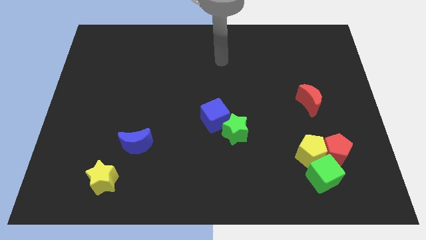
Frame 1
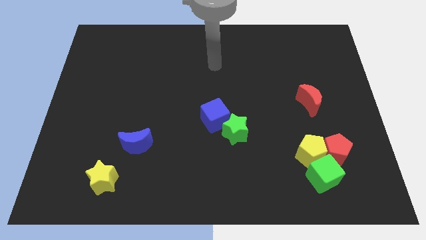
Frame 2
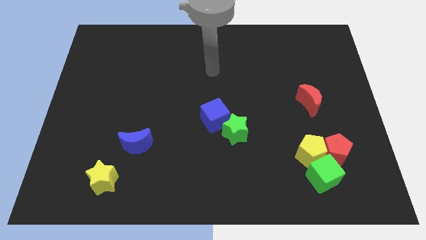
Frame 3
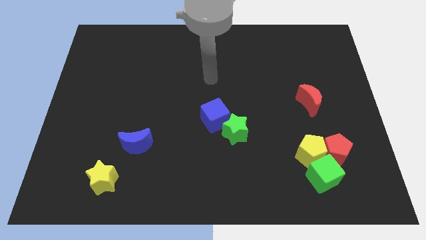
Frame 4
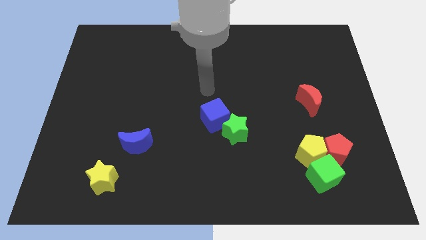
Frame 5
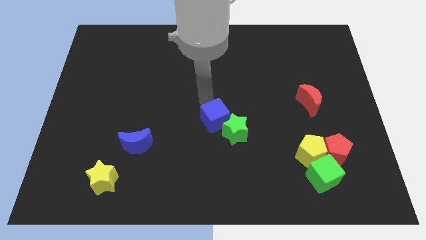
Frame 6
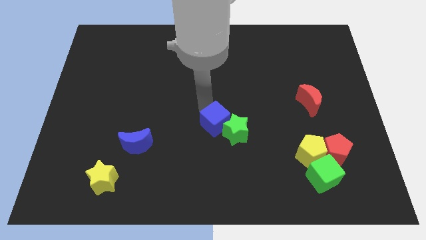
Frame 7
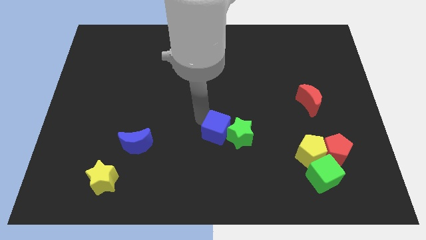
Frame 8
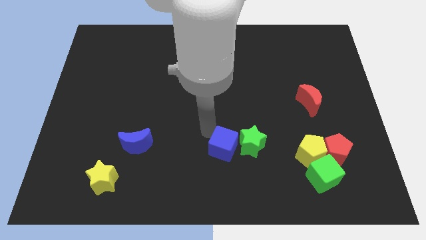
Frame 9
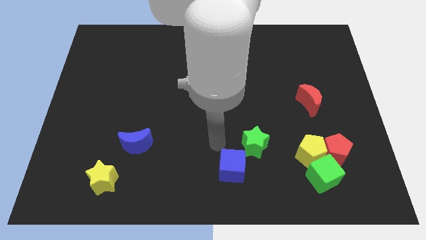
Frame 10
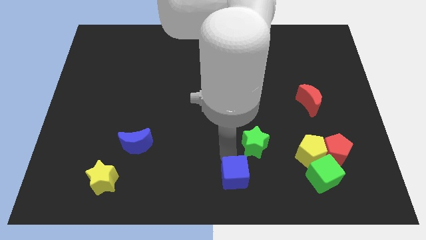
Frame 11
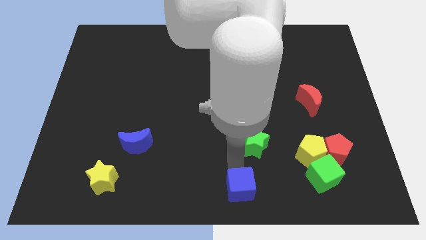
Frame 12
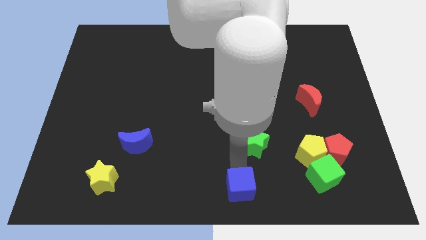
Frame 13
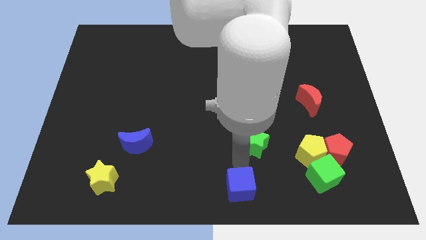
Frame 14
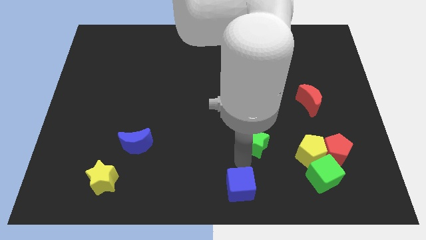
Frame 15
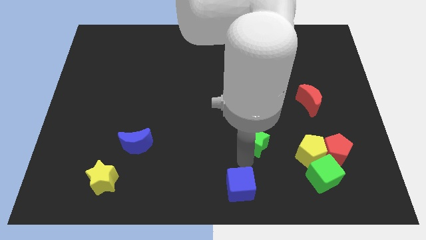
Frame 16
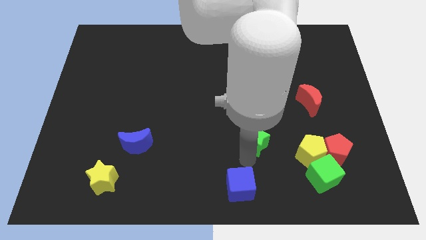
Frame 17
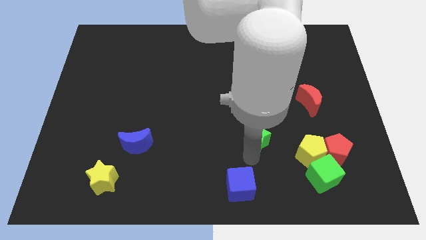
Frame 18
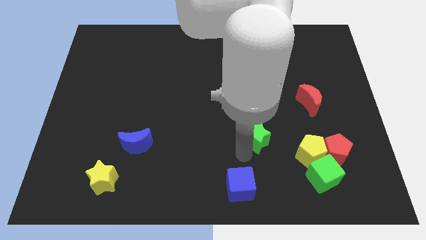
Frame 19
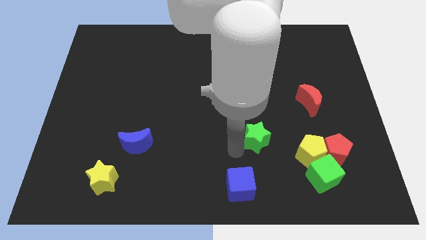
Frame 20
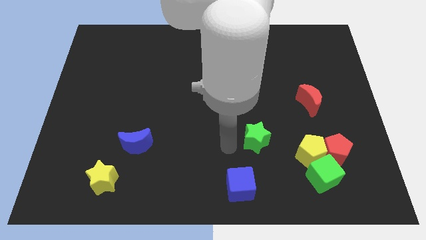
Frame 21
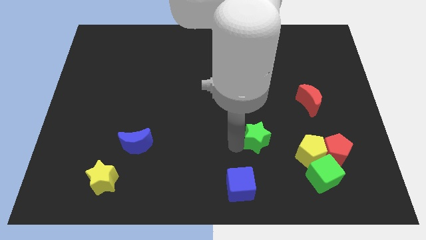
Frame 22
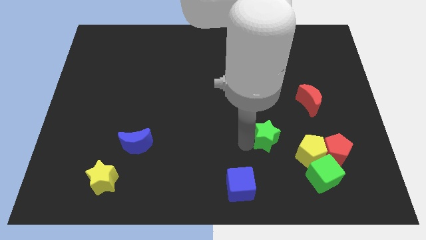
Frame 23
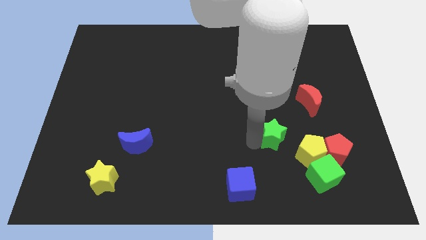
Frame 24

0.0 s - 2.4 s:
push the green star slightly to the right

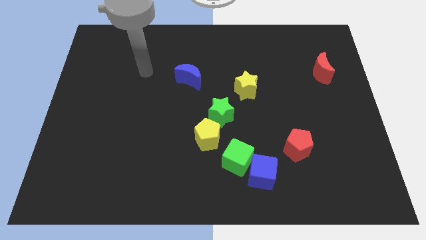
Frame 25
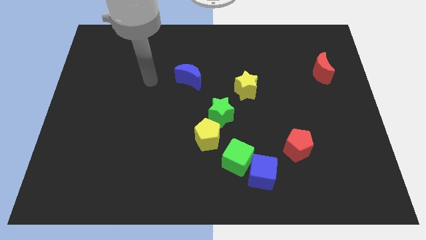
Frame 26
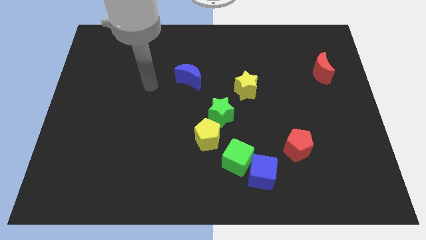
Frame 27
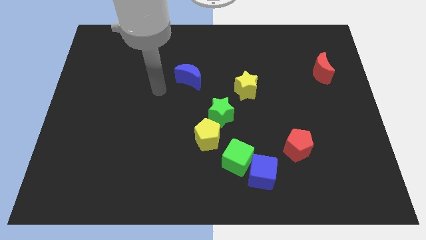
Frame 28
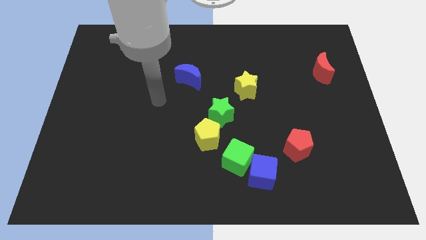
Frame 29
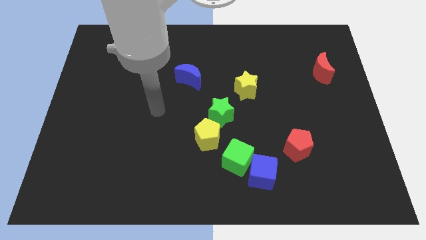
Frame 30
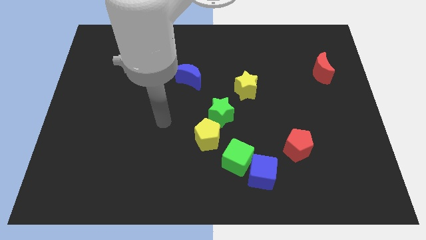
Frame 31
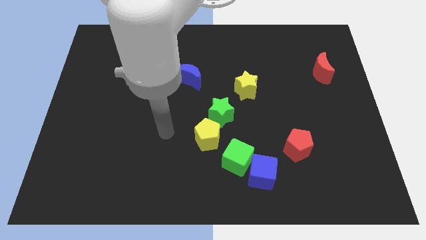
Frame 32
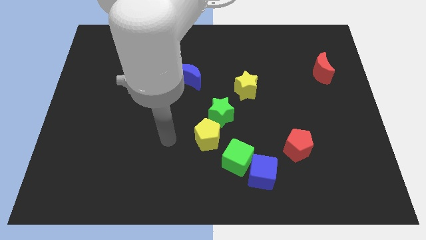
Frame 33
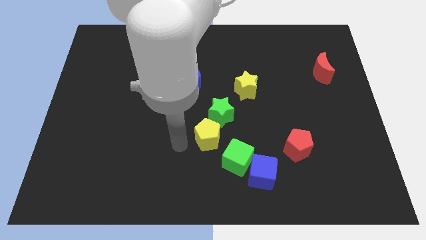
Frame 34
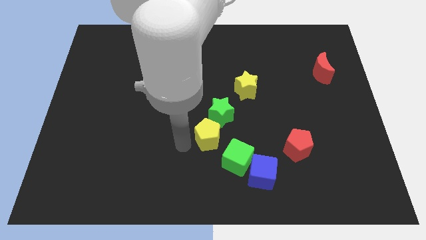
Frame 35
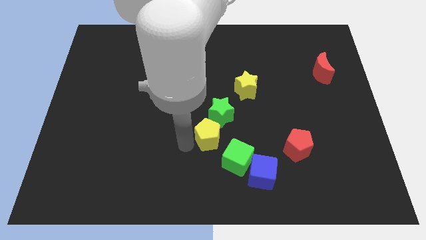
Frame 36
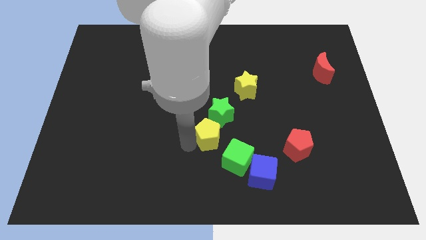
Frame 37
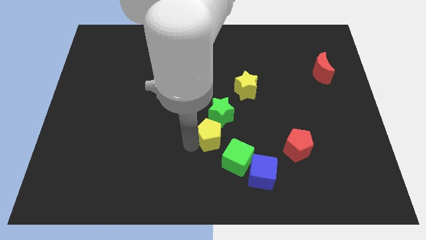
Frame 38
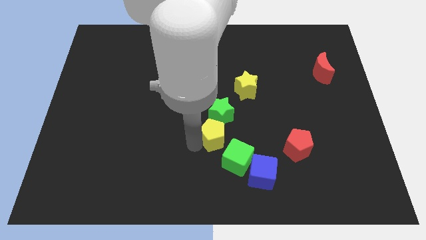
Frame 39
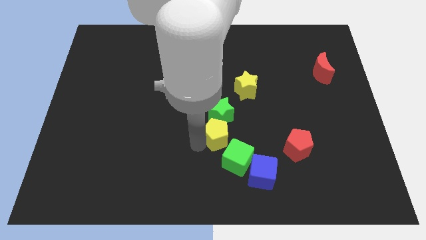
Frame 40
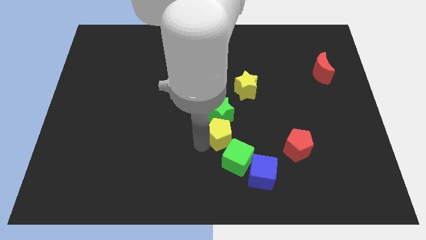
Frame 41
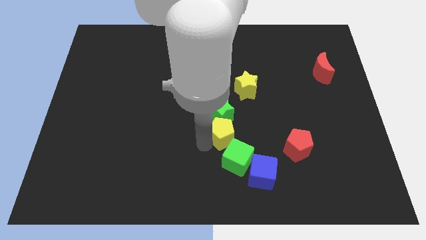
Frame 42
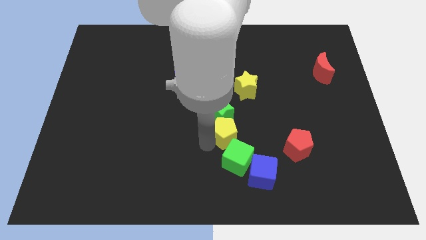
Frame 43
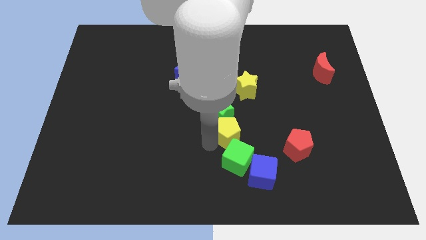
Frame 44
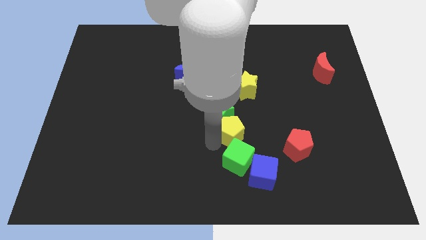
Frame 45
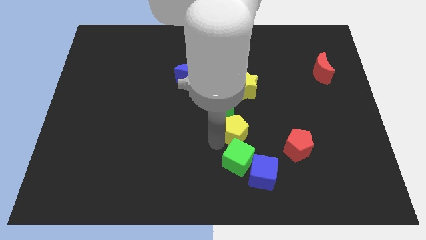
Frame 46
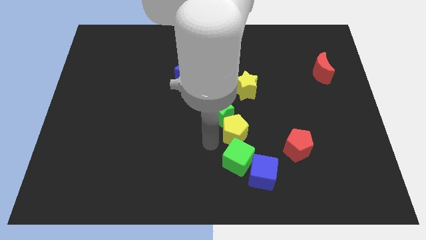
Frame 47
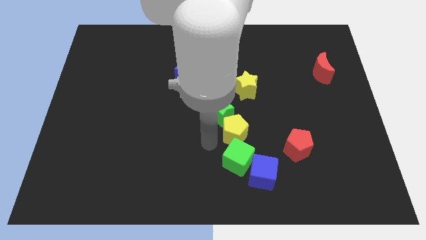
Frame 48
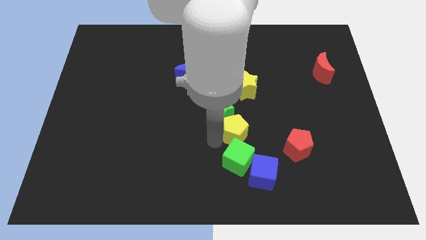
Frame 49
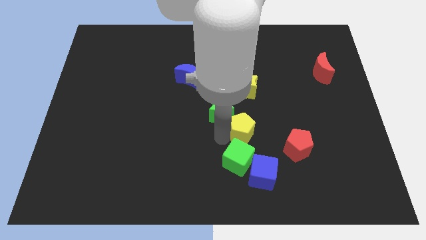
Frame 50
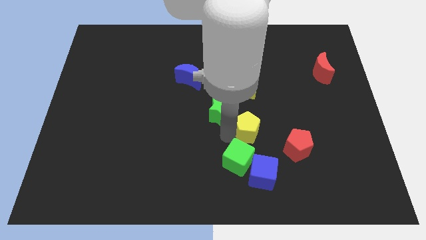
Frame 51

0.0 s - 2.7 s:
push the yellow pentagon a little up and then to the right

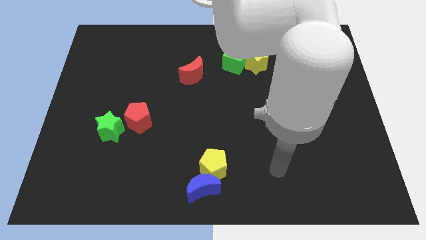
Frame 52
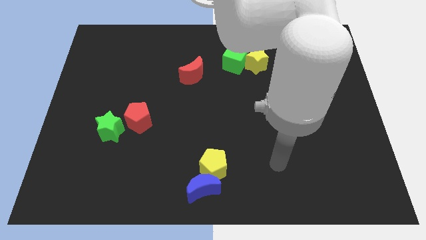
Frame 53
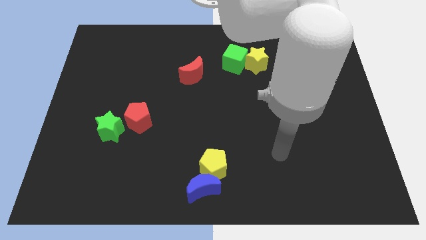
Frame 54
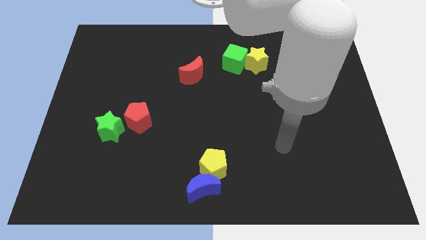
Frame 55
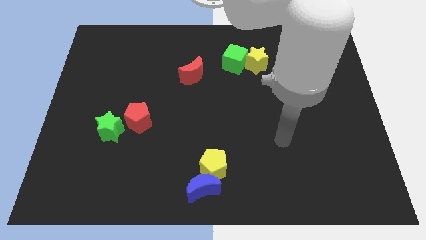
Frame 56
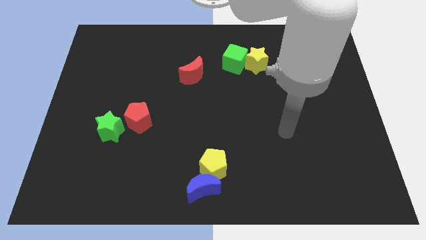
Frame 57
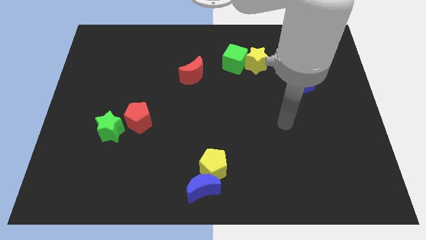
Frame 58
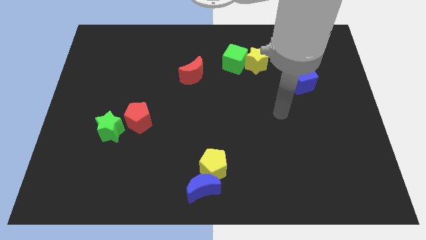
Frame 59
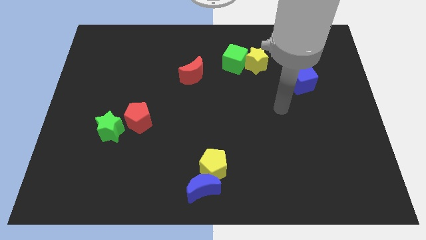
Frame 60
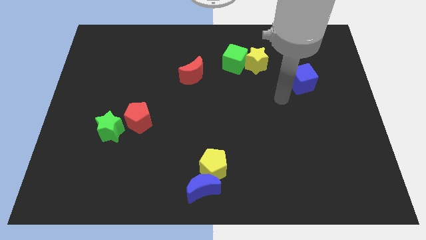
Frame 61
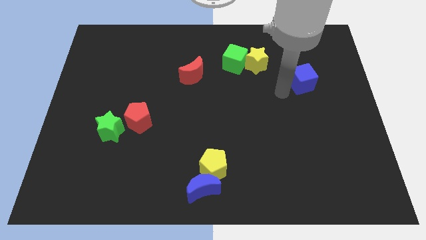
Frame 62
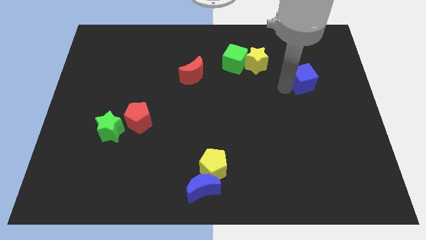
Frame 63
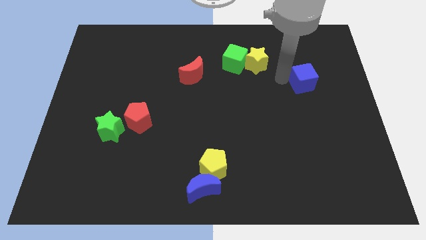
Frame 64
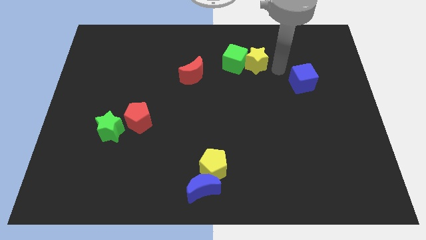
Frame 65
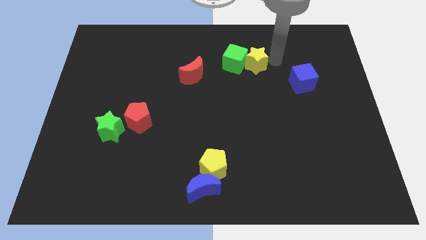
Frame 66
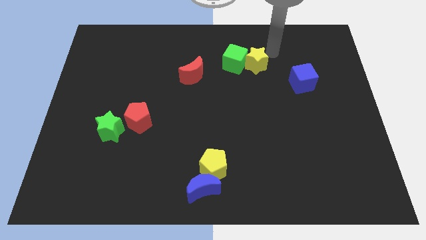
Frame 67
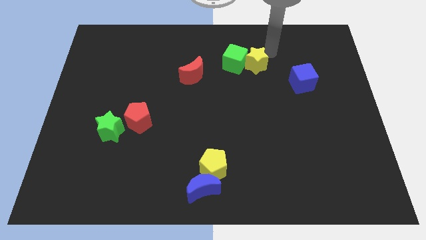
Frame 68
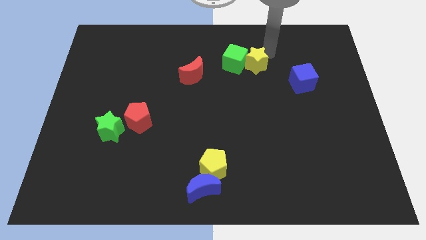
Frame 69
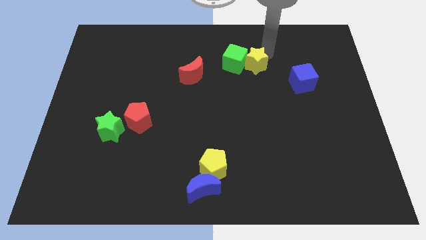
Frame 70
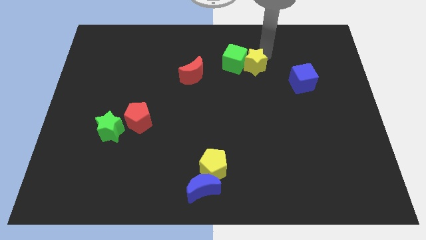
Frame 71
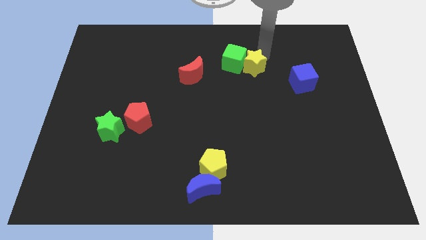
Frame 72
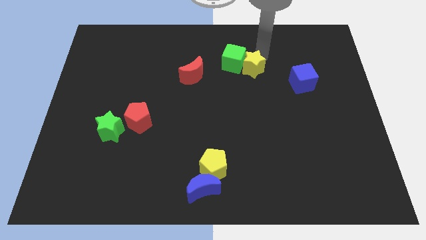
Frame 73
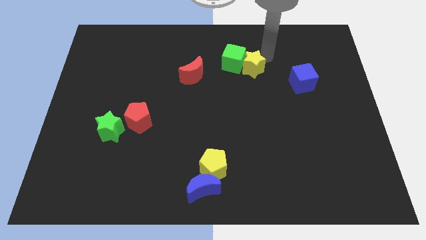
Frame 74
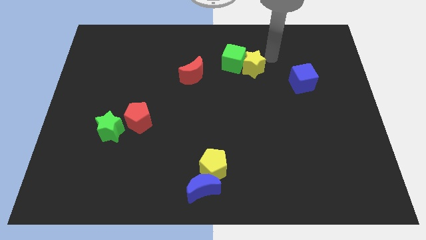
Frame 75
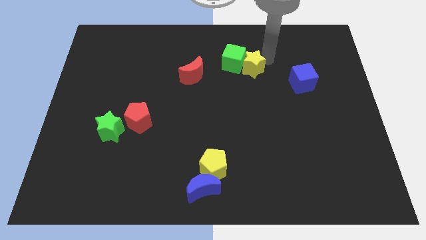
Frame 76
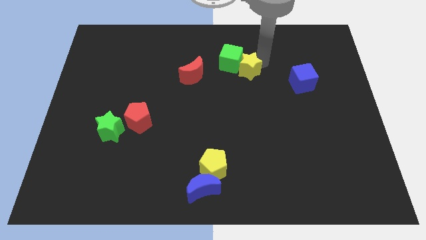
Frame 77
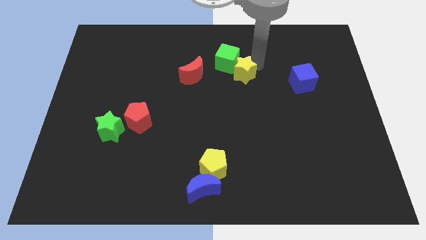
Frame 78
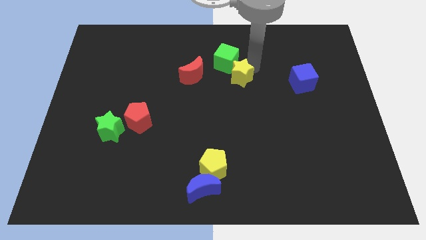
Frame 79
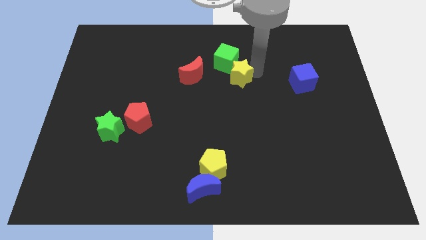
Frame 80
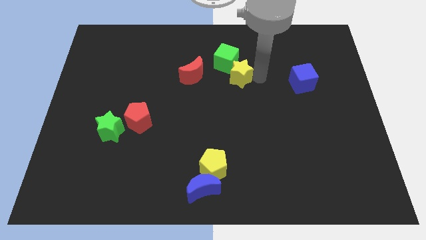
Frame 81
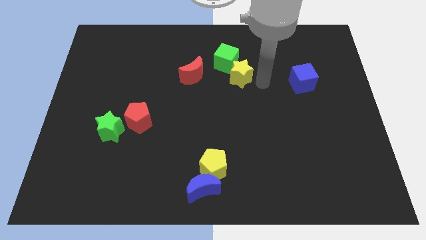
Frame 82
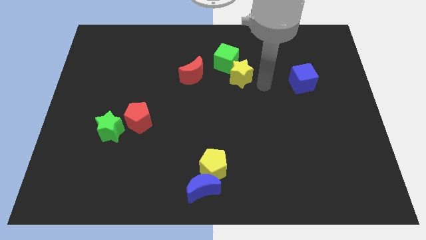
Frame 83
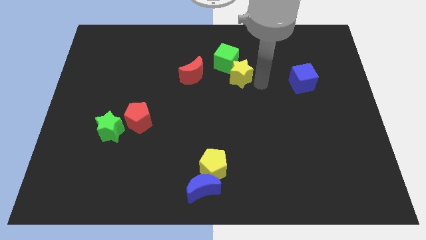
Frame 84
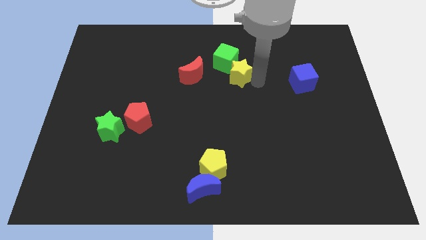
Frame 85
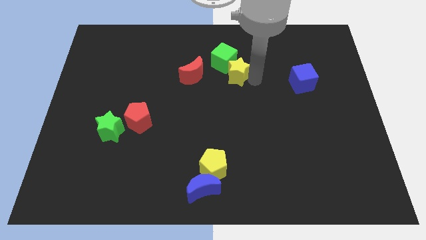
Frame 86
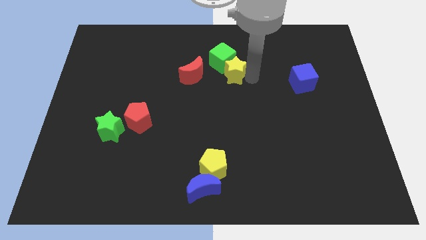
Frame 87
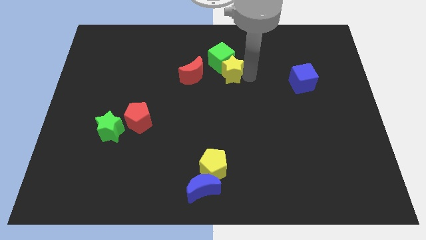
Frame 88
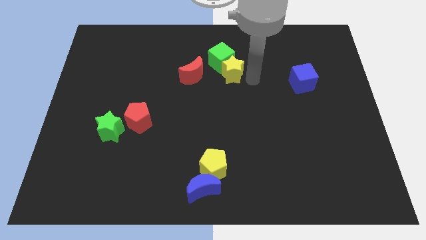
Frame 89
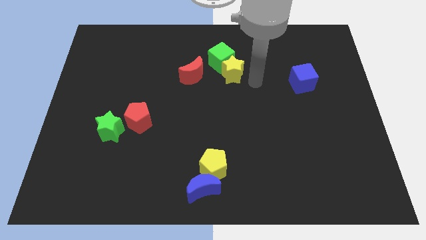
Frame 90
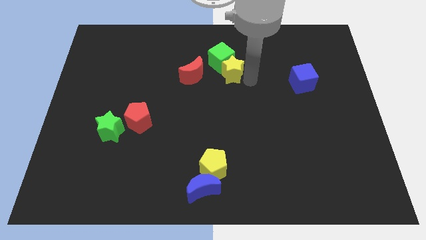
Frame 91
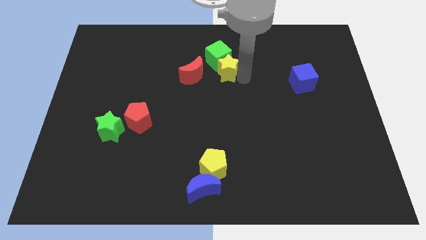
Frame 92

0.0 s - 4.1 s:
push the yellow star a little to the left
